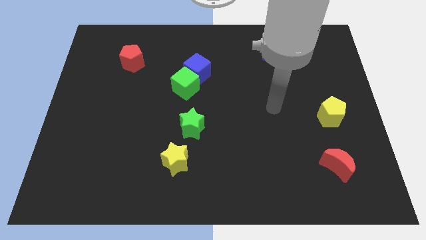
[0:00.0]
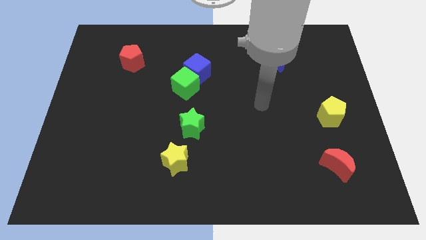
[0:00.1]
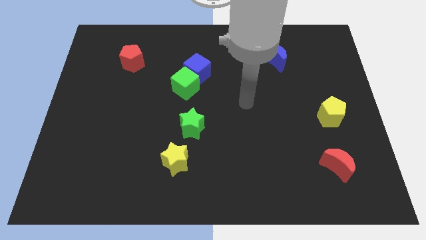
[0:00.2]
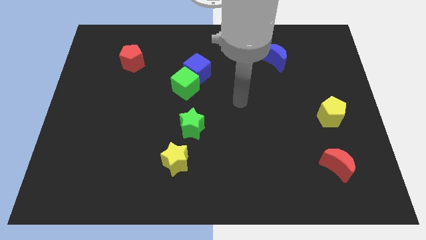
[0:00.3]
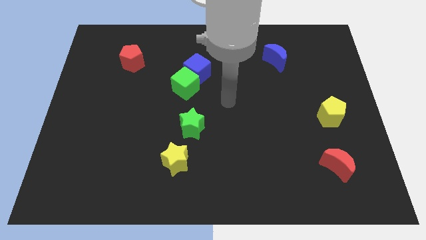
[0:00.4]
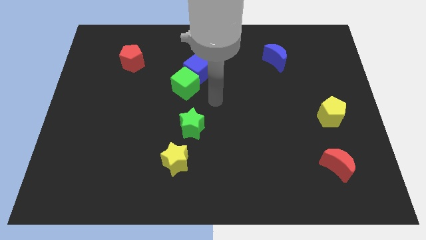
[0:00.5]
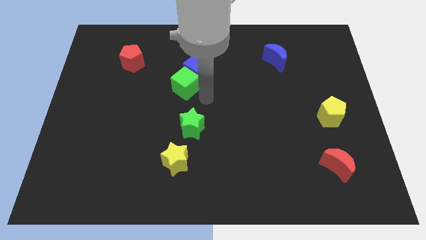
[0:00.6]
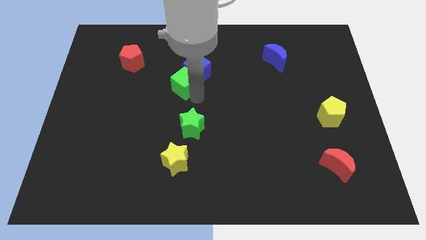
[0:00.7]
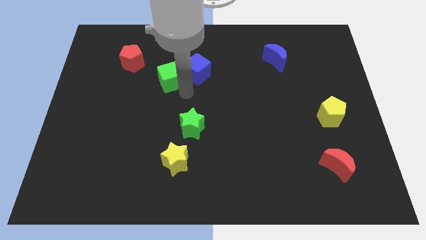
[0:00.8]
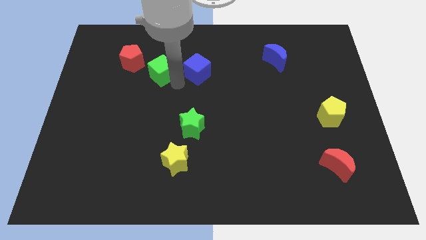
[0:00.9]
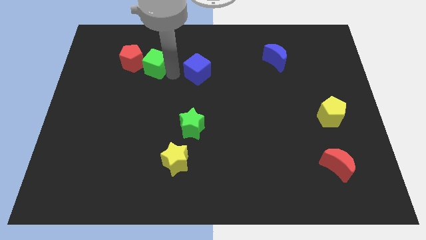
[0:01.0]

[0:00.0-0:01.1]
move the blue cube away from the green cube

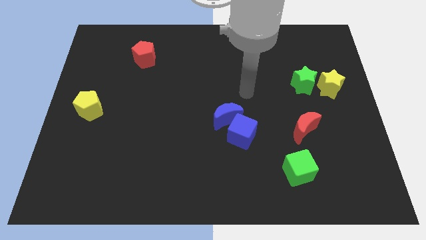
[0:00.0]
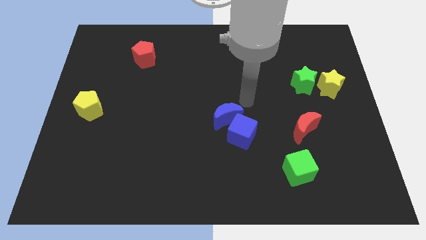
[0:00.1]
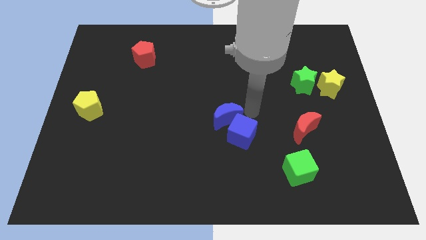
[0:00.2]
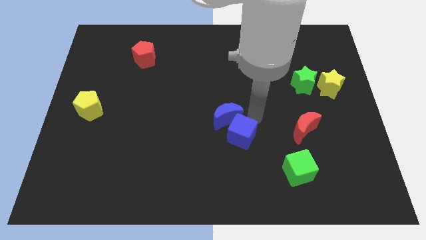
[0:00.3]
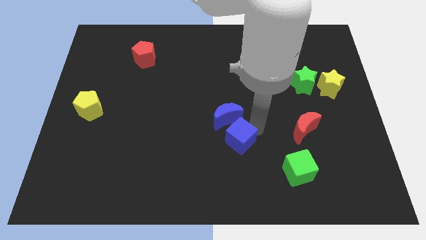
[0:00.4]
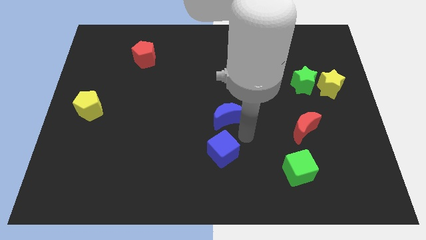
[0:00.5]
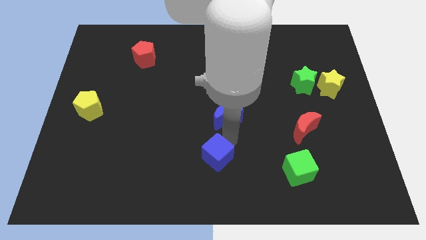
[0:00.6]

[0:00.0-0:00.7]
move the blue moon away from the blue cube

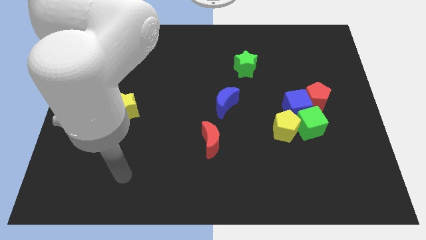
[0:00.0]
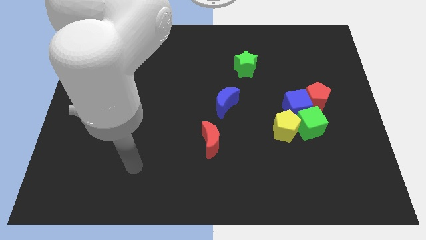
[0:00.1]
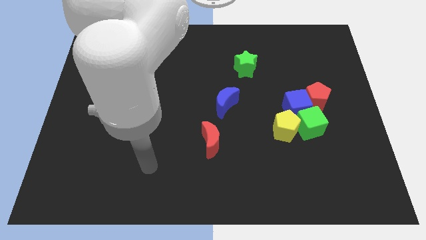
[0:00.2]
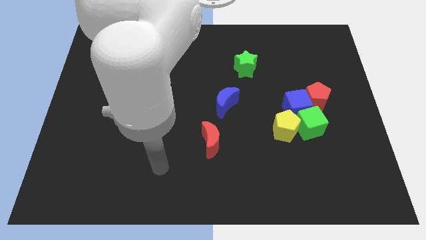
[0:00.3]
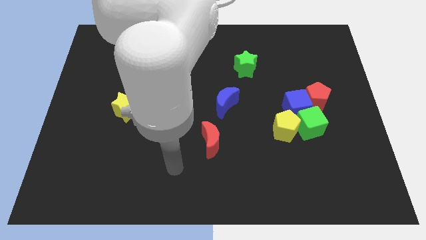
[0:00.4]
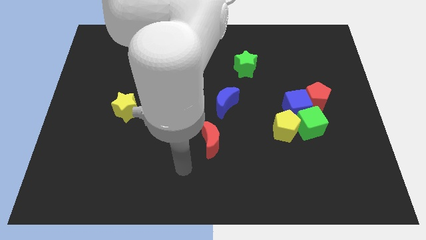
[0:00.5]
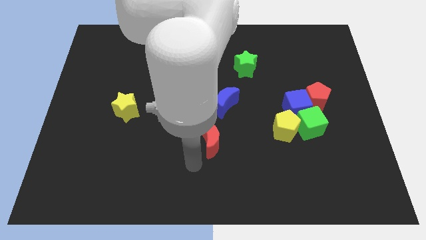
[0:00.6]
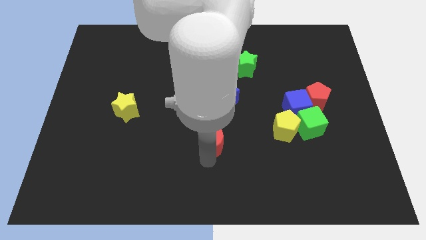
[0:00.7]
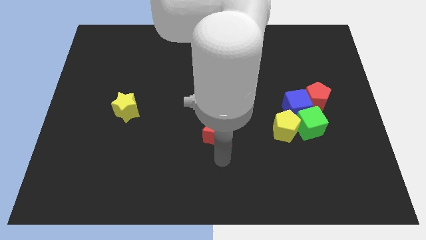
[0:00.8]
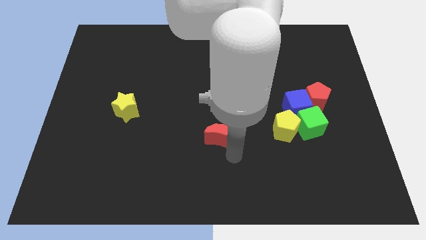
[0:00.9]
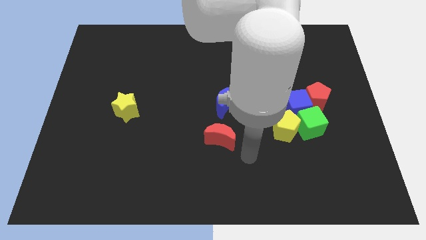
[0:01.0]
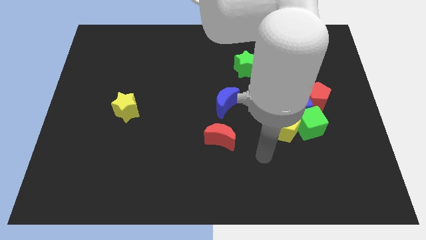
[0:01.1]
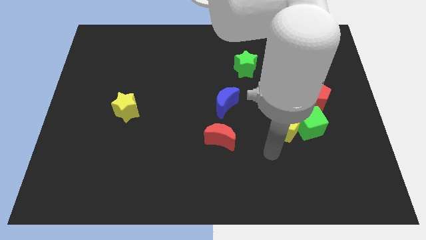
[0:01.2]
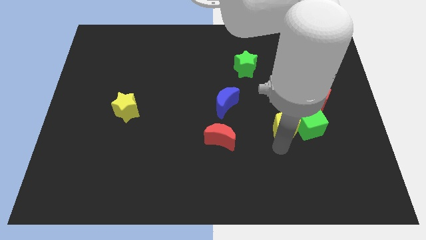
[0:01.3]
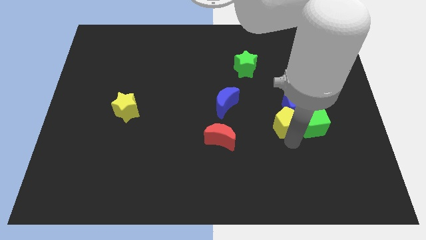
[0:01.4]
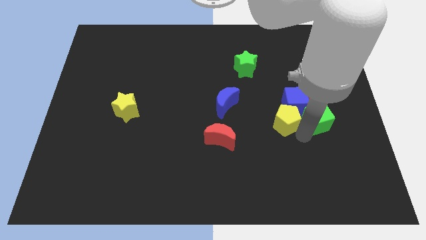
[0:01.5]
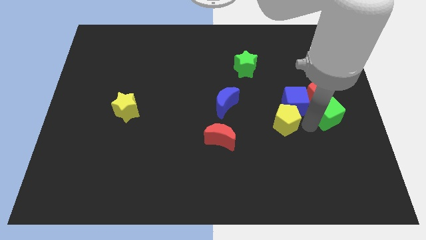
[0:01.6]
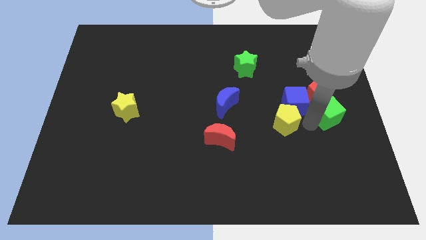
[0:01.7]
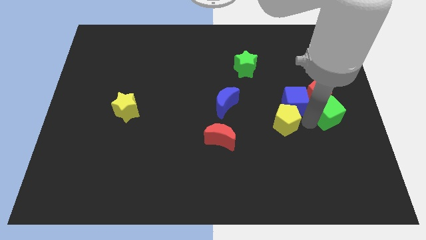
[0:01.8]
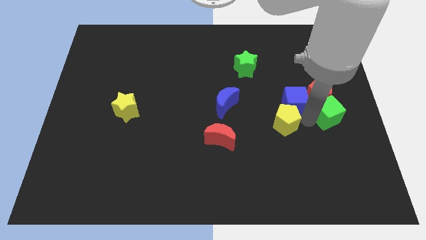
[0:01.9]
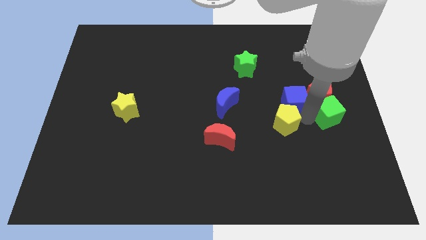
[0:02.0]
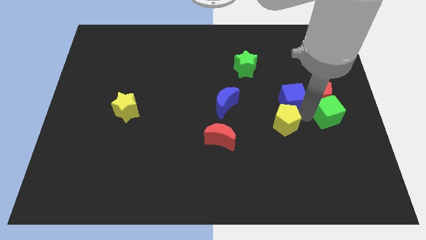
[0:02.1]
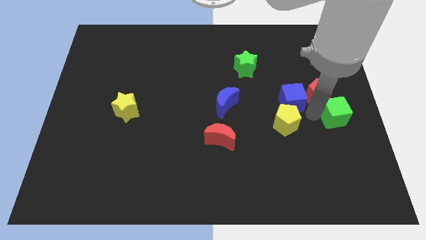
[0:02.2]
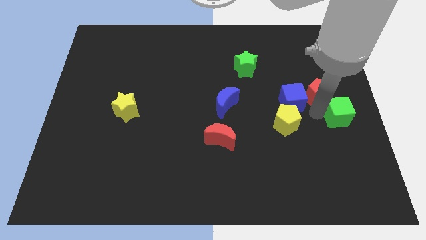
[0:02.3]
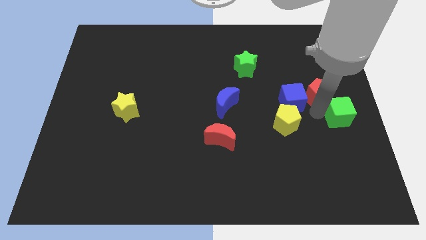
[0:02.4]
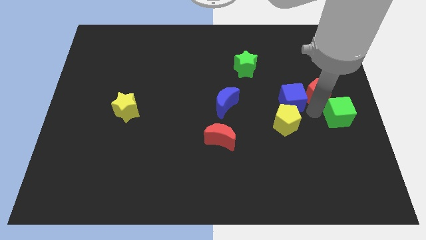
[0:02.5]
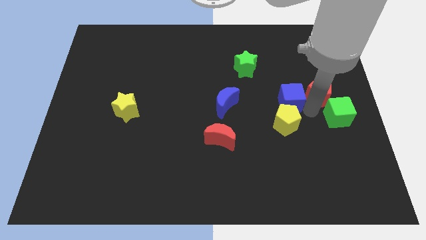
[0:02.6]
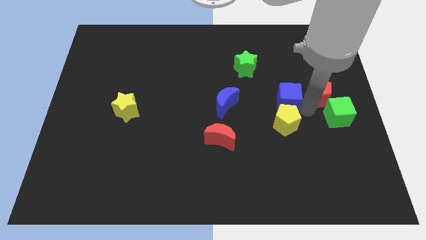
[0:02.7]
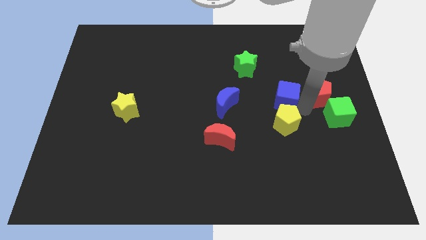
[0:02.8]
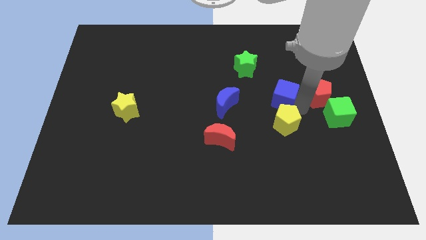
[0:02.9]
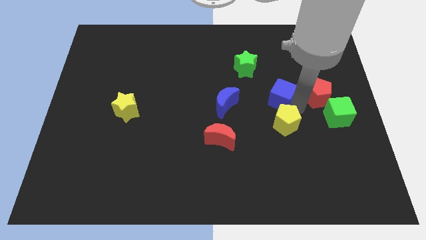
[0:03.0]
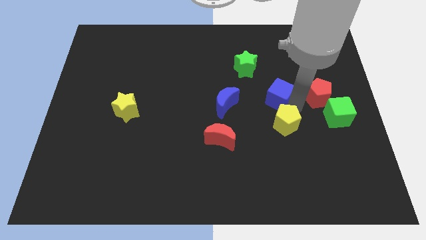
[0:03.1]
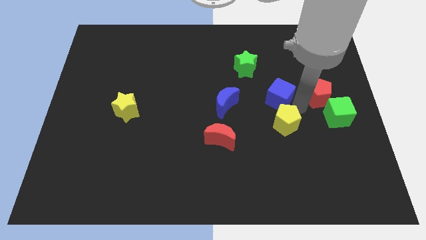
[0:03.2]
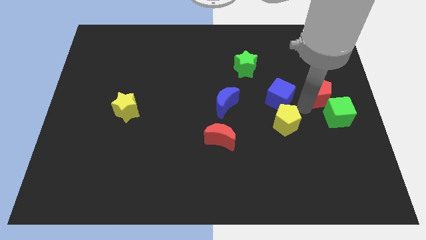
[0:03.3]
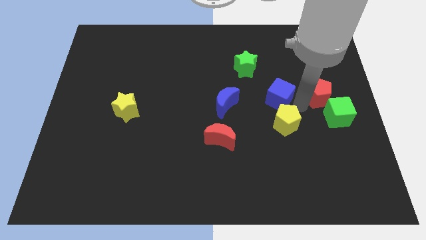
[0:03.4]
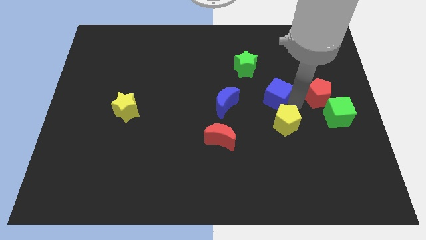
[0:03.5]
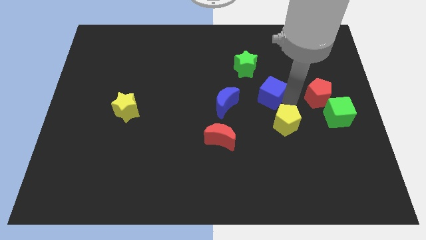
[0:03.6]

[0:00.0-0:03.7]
separate the blue cube from the red pentagon, green cube, and yellow pentagon

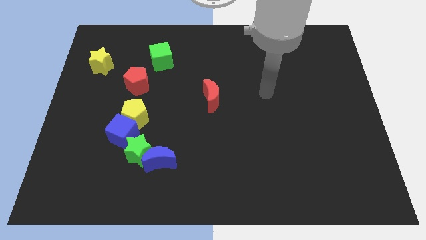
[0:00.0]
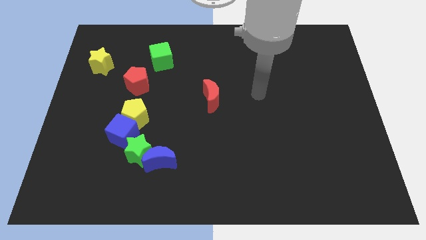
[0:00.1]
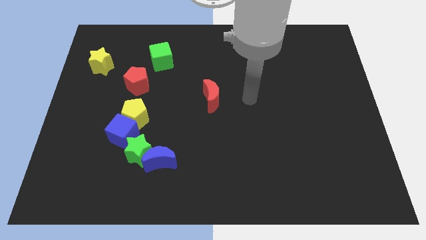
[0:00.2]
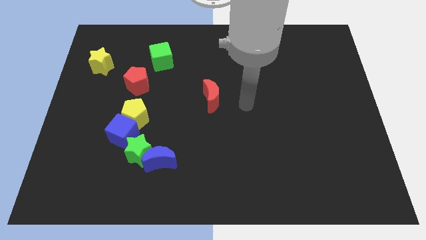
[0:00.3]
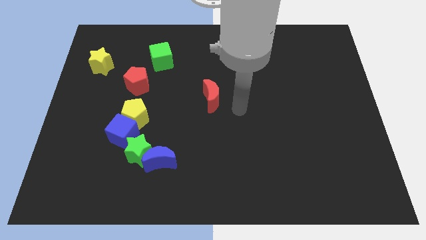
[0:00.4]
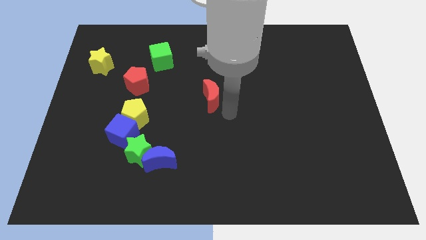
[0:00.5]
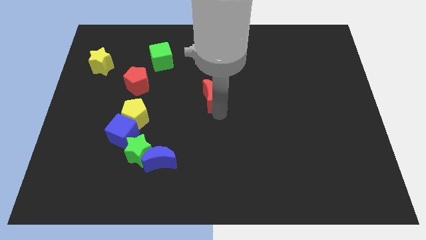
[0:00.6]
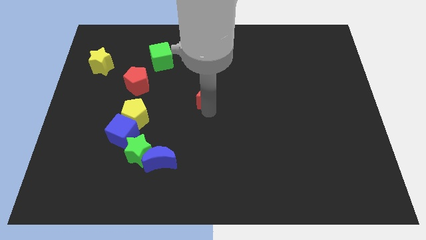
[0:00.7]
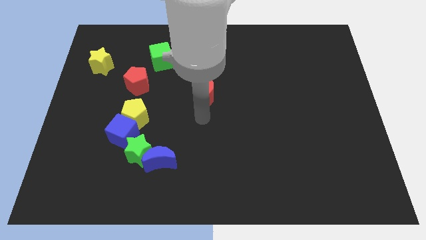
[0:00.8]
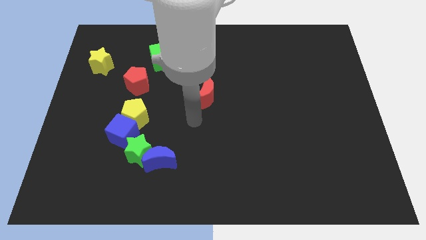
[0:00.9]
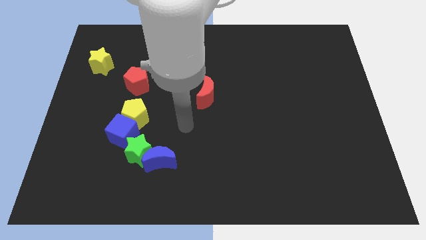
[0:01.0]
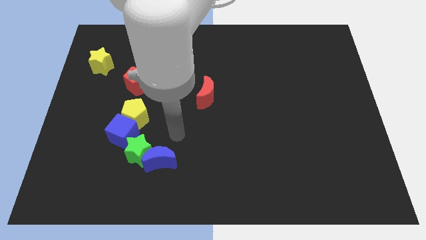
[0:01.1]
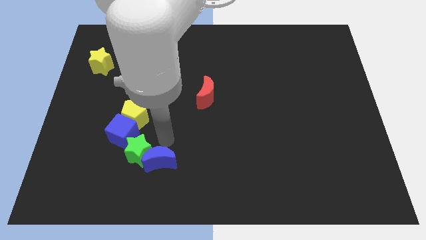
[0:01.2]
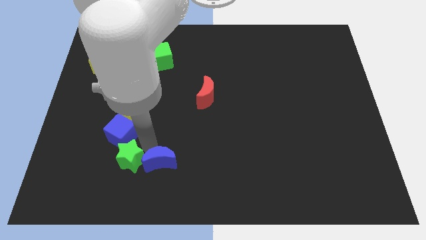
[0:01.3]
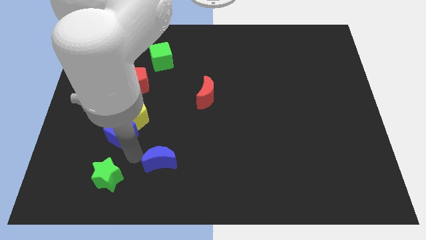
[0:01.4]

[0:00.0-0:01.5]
pull the blue moon apart from the green star

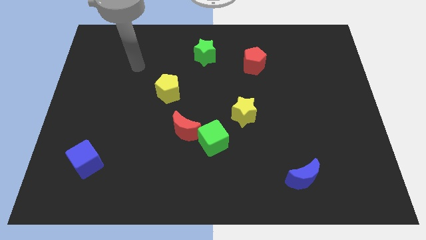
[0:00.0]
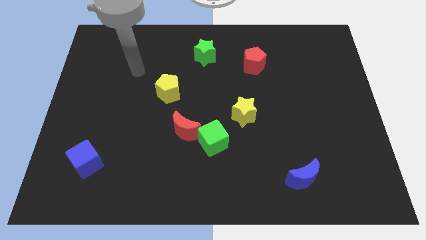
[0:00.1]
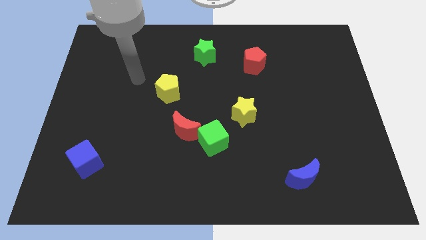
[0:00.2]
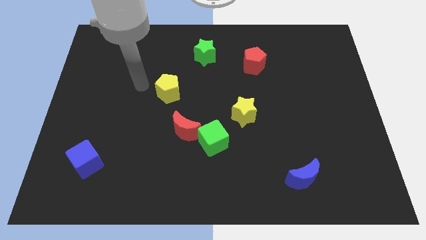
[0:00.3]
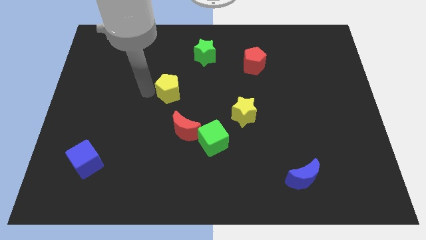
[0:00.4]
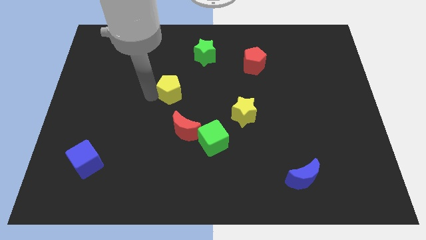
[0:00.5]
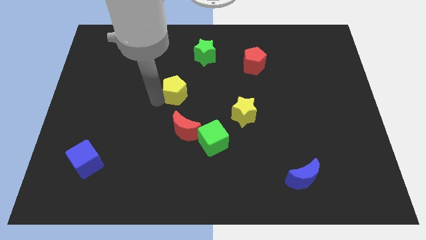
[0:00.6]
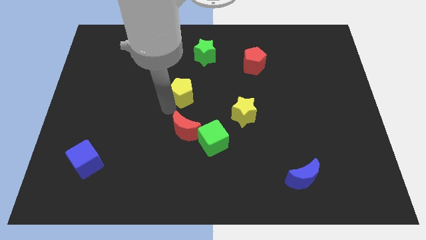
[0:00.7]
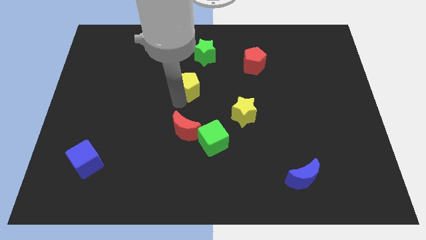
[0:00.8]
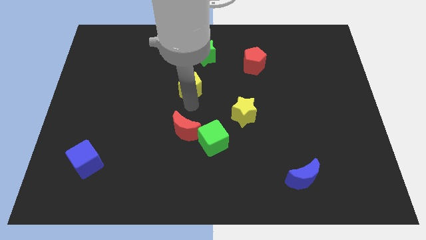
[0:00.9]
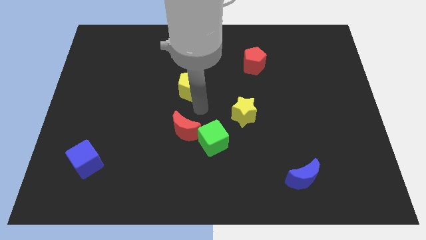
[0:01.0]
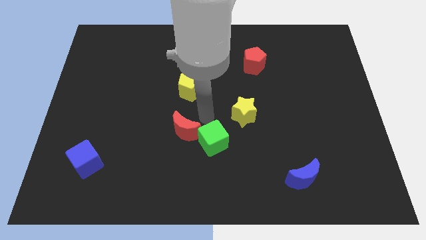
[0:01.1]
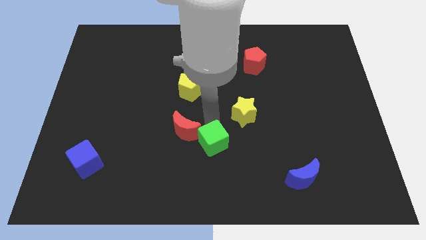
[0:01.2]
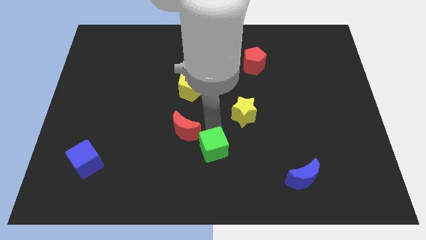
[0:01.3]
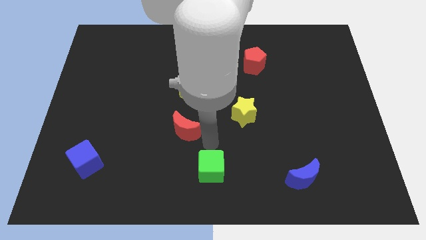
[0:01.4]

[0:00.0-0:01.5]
move the red moon away from the green cube

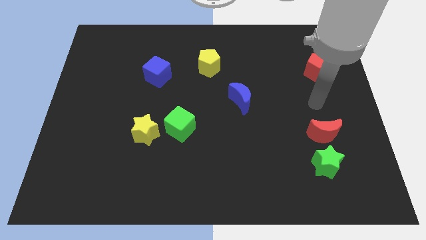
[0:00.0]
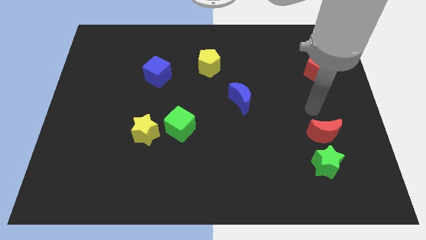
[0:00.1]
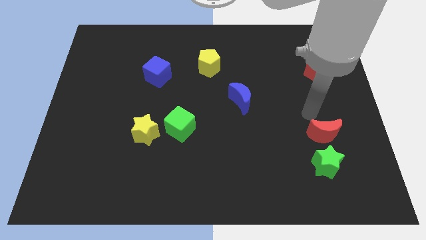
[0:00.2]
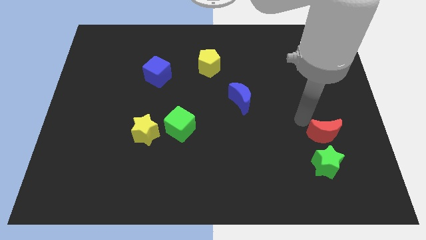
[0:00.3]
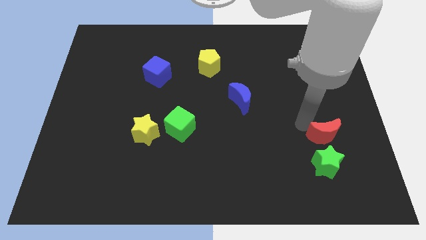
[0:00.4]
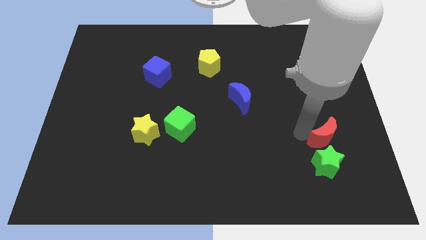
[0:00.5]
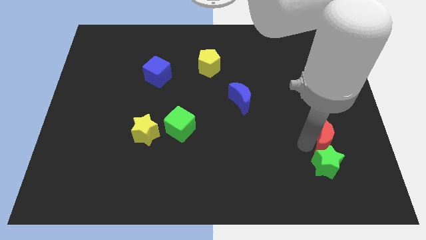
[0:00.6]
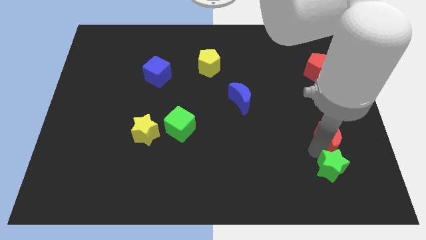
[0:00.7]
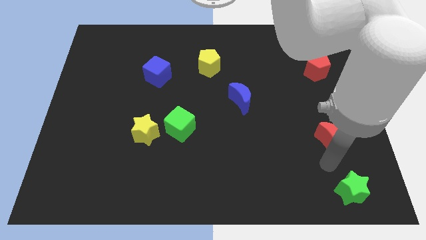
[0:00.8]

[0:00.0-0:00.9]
pull the red moon apart from the green star
